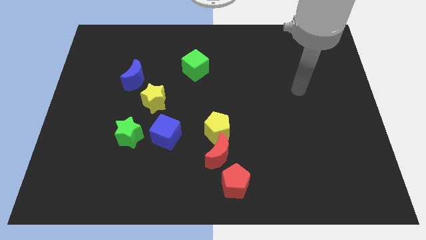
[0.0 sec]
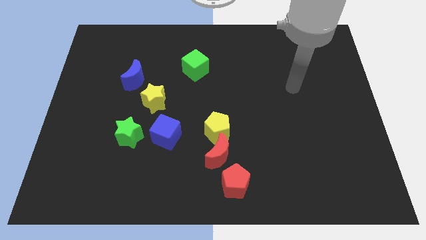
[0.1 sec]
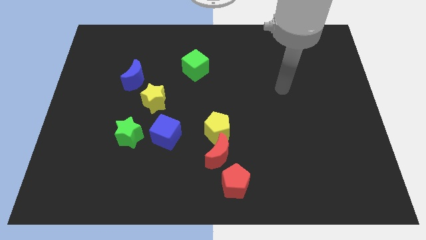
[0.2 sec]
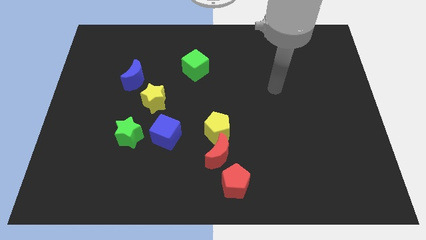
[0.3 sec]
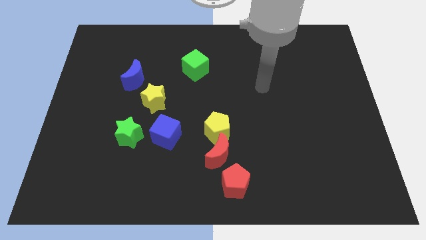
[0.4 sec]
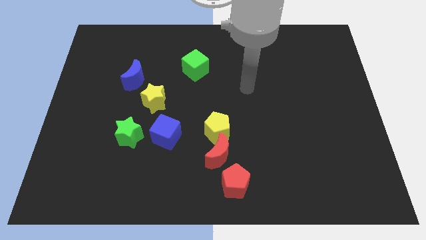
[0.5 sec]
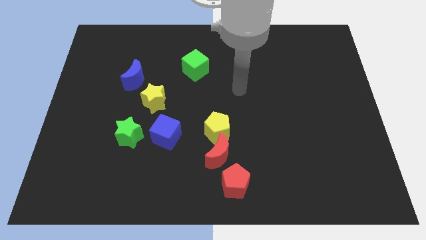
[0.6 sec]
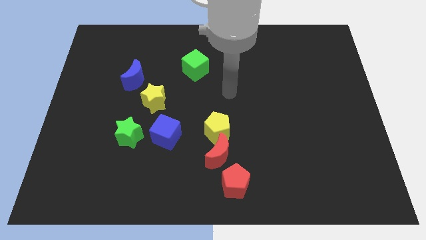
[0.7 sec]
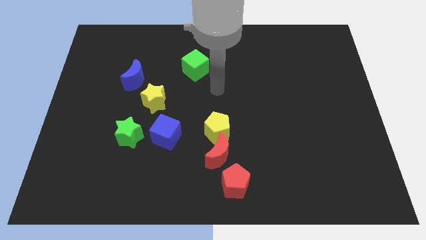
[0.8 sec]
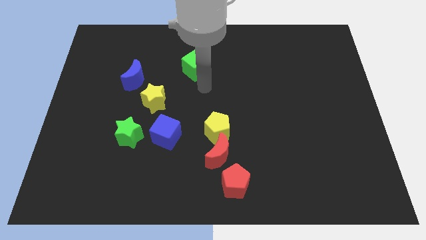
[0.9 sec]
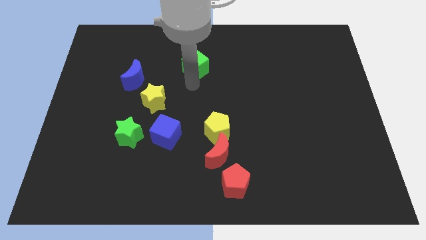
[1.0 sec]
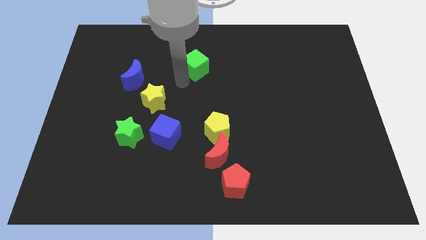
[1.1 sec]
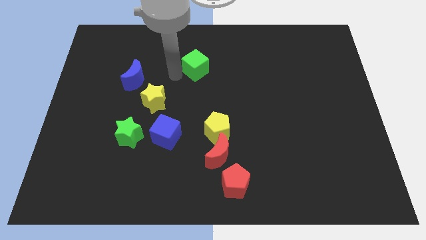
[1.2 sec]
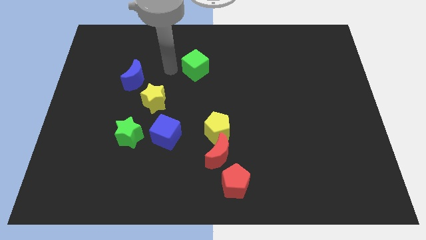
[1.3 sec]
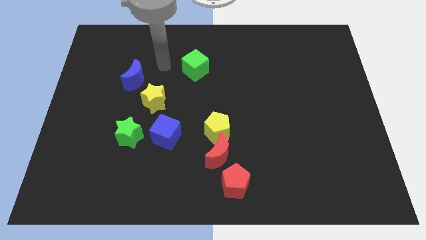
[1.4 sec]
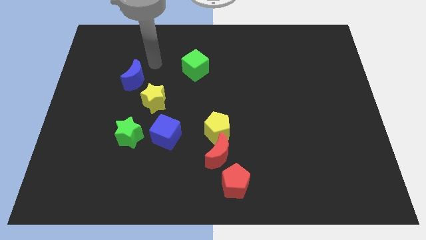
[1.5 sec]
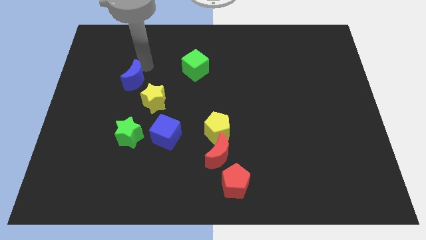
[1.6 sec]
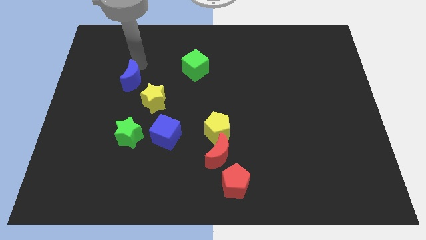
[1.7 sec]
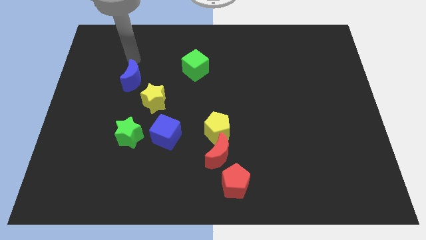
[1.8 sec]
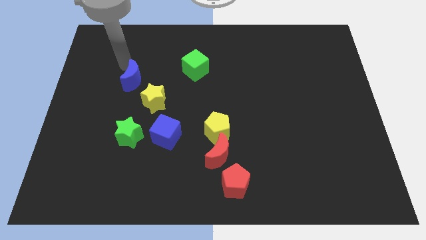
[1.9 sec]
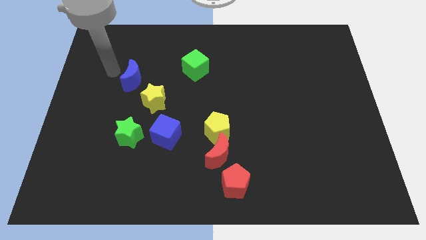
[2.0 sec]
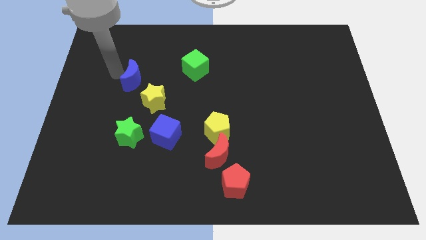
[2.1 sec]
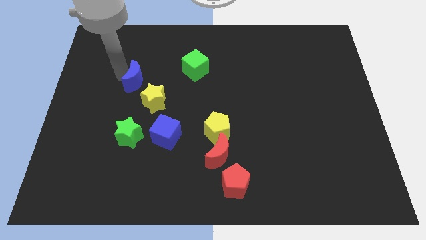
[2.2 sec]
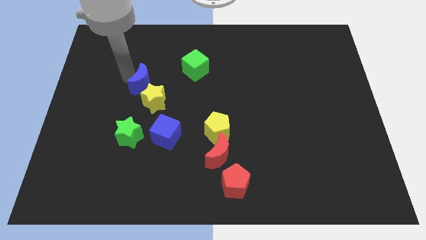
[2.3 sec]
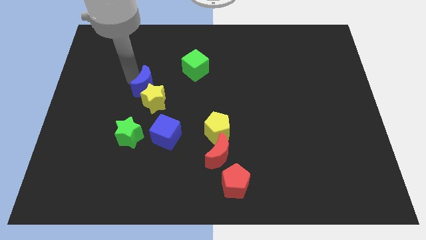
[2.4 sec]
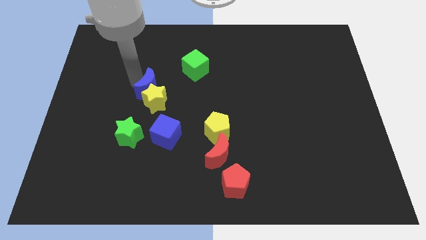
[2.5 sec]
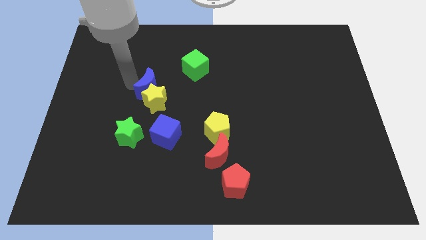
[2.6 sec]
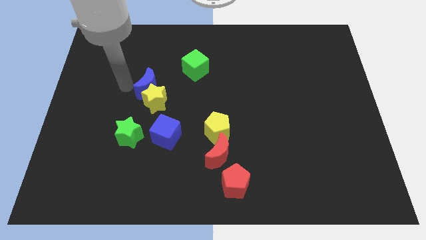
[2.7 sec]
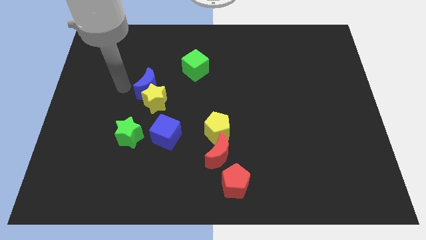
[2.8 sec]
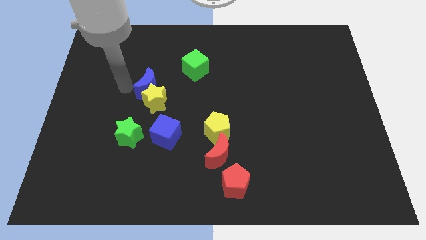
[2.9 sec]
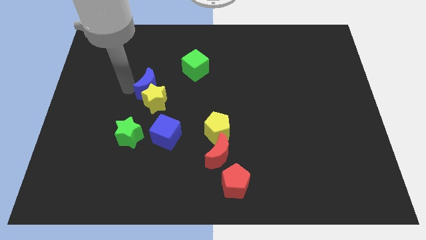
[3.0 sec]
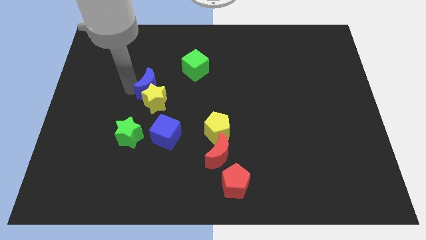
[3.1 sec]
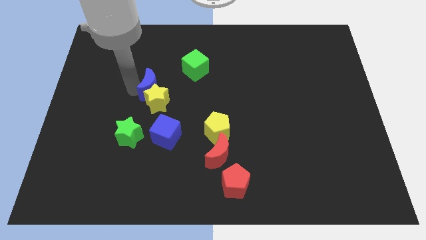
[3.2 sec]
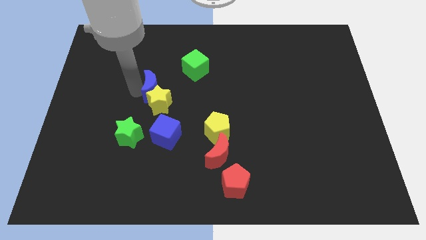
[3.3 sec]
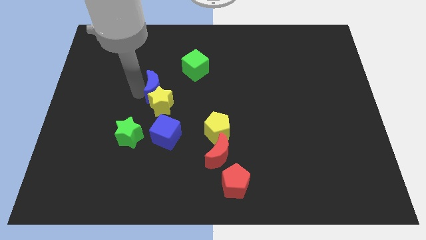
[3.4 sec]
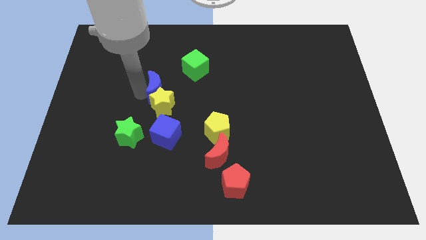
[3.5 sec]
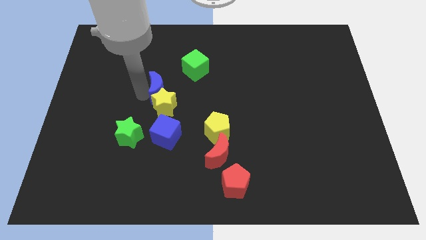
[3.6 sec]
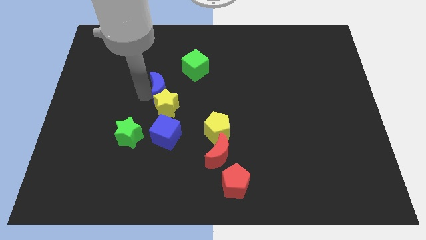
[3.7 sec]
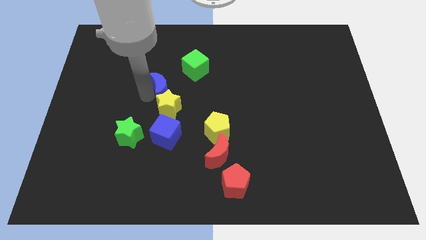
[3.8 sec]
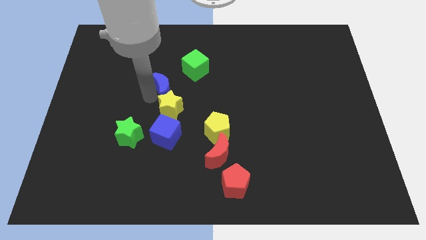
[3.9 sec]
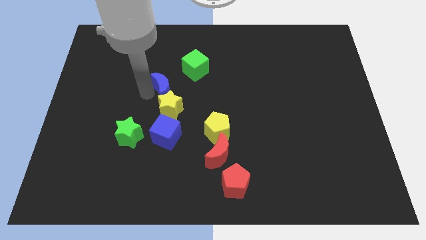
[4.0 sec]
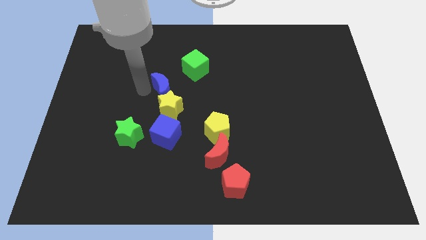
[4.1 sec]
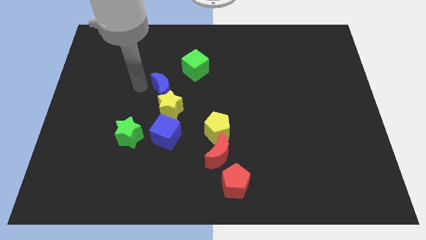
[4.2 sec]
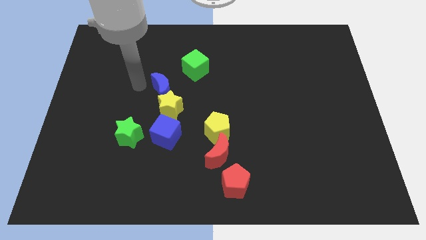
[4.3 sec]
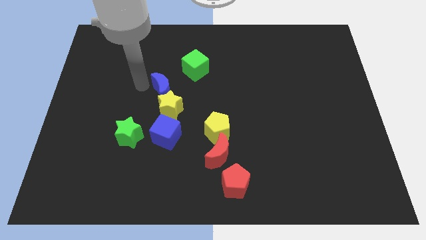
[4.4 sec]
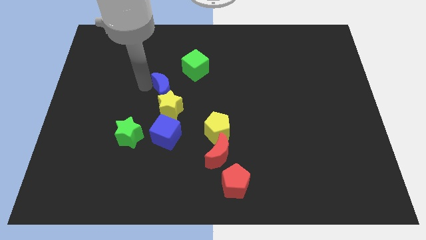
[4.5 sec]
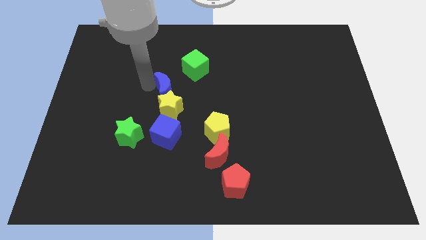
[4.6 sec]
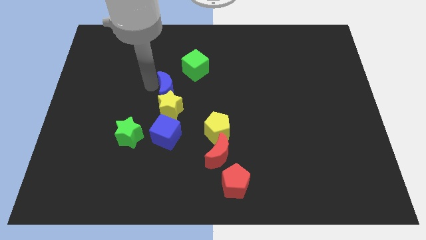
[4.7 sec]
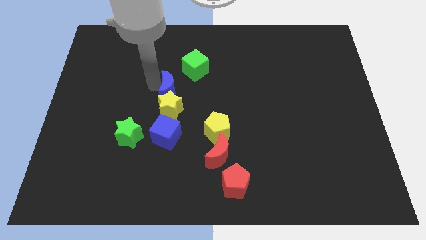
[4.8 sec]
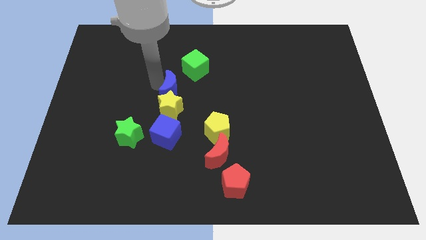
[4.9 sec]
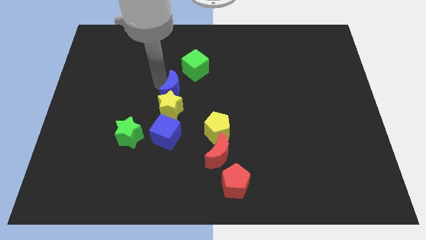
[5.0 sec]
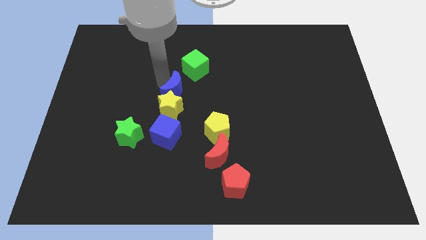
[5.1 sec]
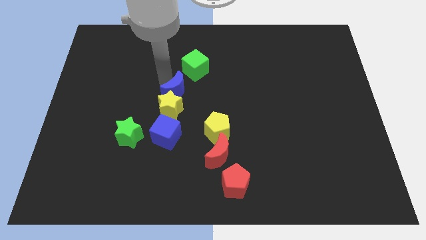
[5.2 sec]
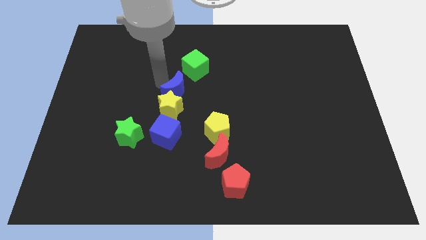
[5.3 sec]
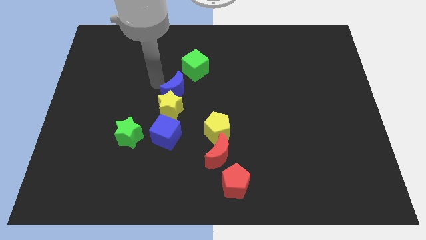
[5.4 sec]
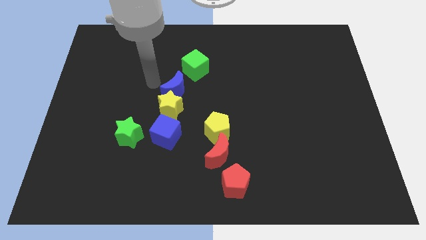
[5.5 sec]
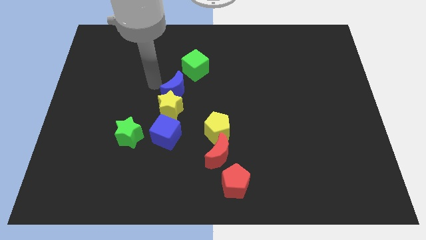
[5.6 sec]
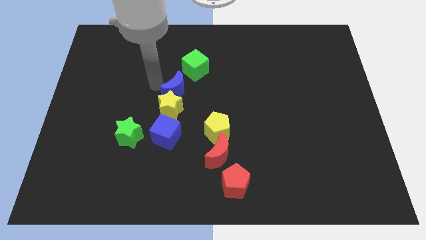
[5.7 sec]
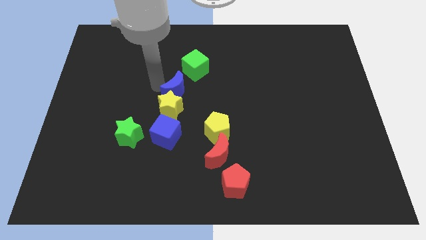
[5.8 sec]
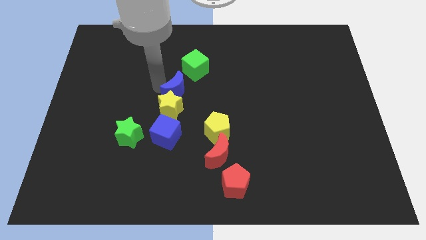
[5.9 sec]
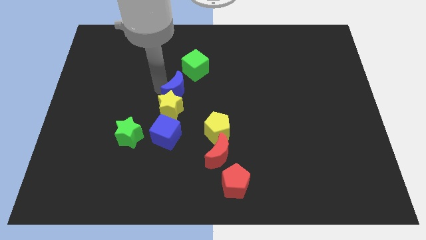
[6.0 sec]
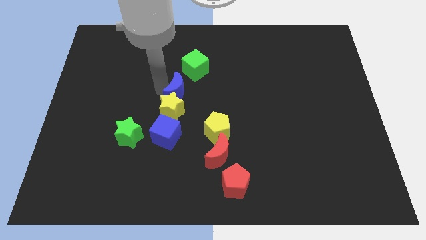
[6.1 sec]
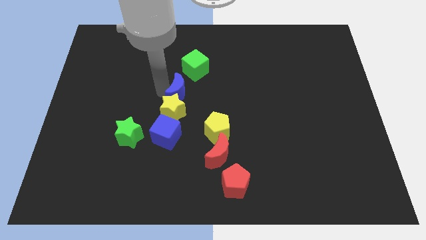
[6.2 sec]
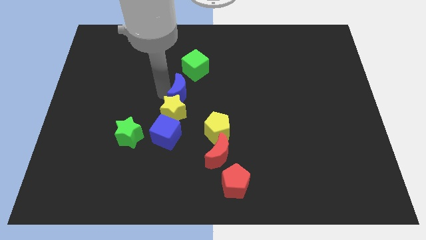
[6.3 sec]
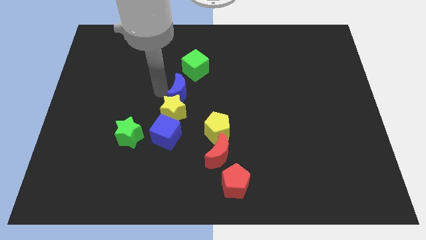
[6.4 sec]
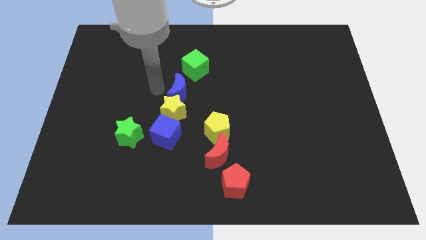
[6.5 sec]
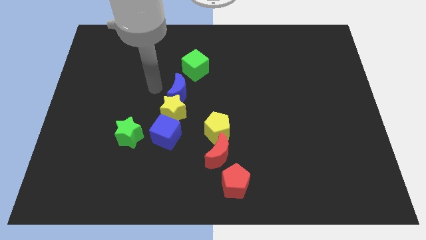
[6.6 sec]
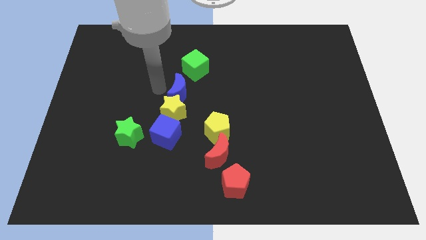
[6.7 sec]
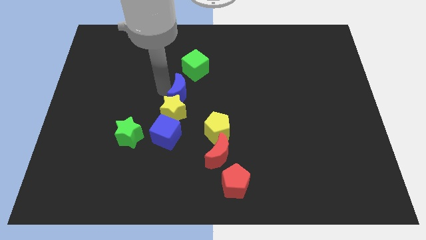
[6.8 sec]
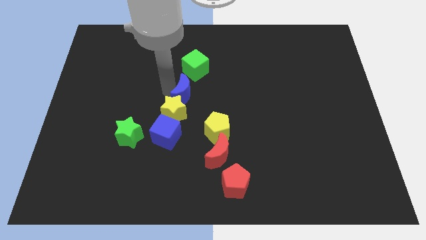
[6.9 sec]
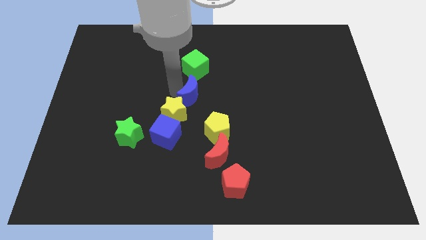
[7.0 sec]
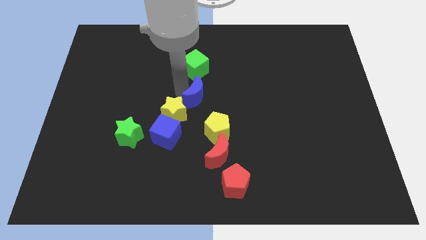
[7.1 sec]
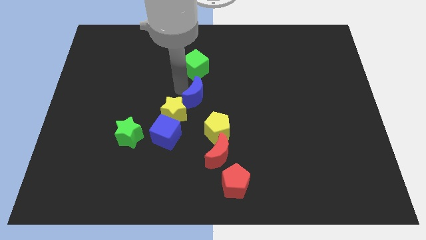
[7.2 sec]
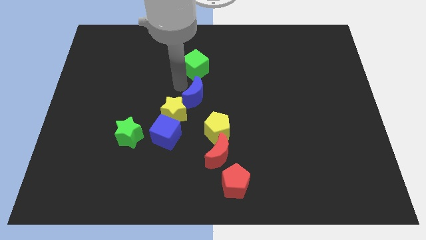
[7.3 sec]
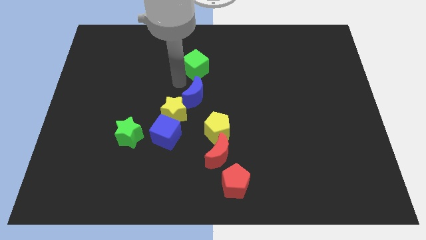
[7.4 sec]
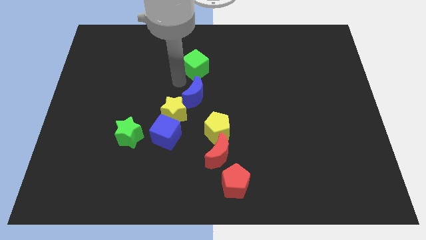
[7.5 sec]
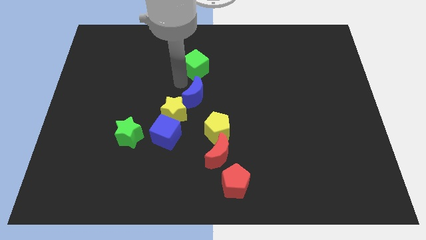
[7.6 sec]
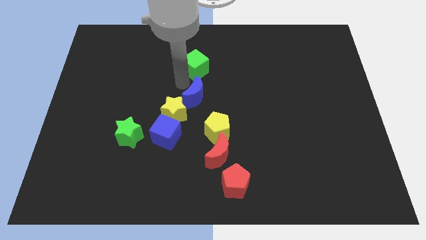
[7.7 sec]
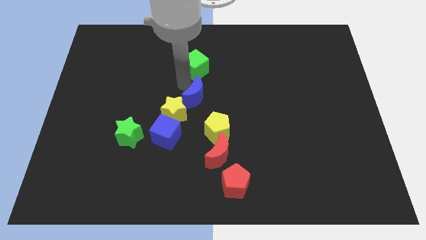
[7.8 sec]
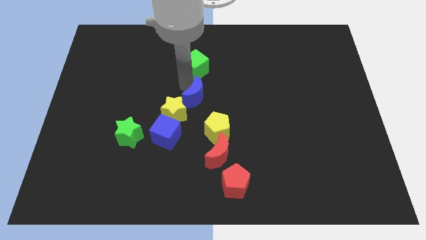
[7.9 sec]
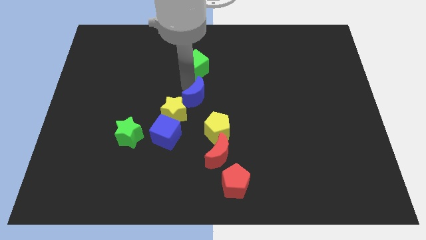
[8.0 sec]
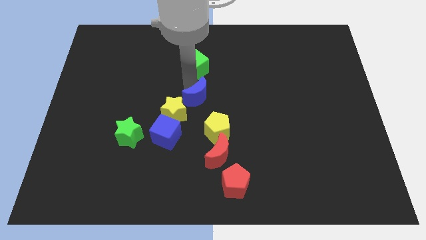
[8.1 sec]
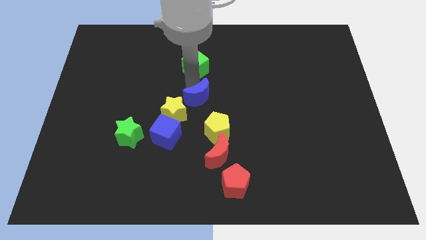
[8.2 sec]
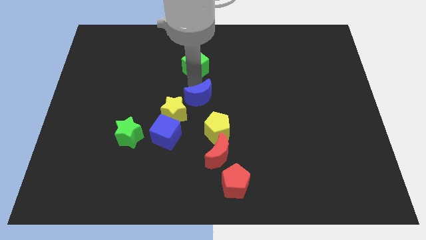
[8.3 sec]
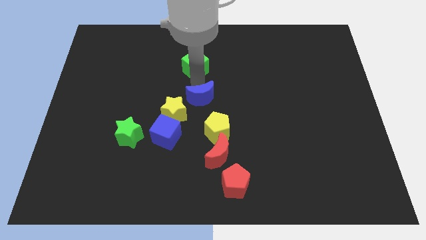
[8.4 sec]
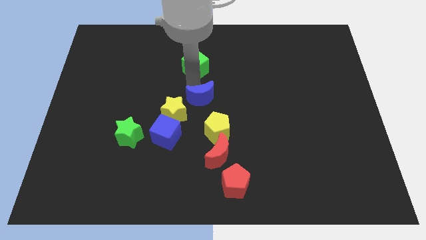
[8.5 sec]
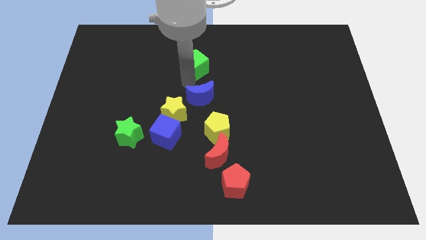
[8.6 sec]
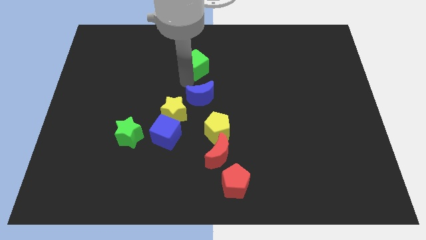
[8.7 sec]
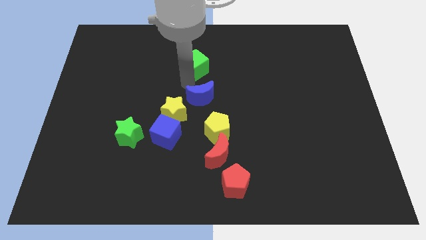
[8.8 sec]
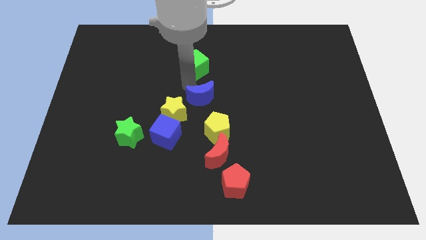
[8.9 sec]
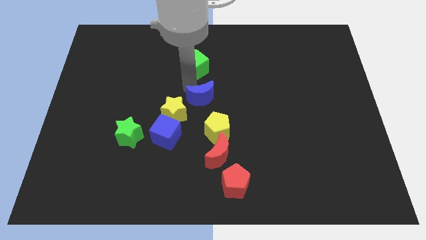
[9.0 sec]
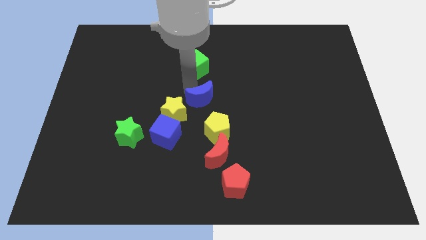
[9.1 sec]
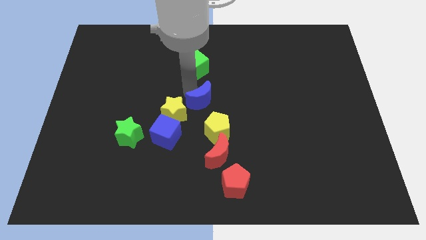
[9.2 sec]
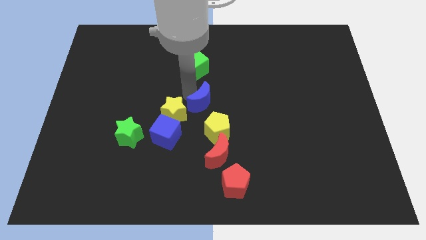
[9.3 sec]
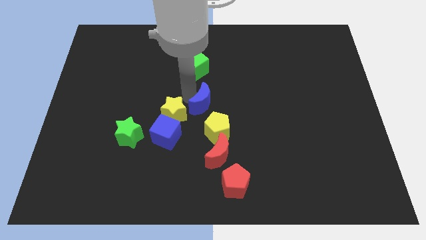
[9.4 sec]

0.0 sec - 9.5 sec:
push the blue moon to the top of the red moon
